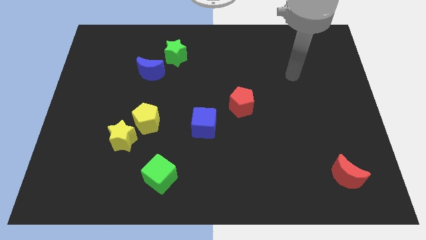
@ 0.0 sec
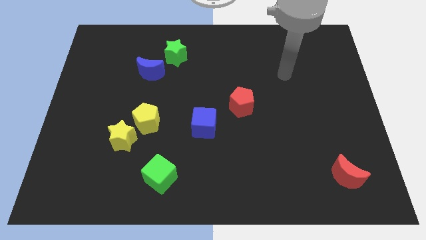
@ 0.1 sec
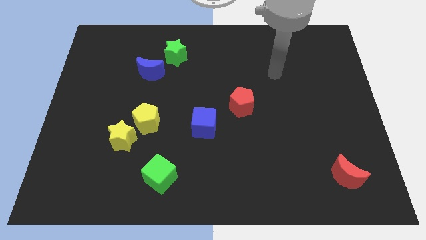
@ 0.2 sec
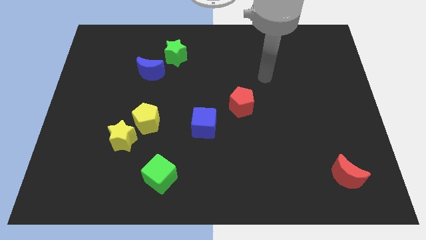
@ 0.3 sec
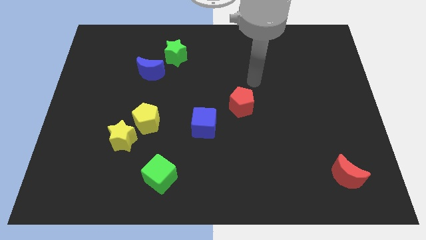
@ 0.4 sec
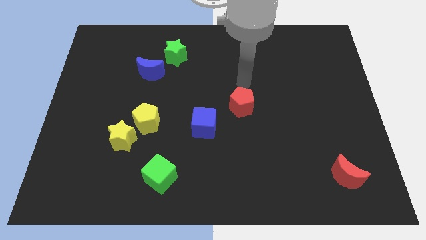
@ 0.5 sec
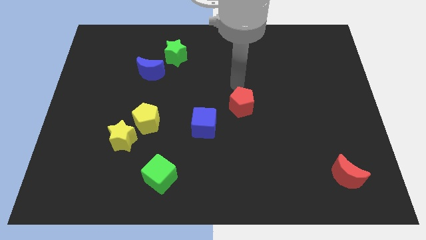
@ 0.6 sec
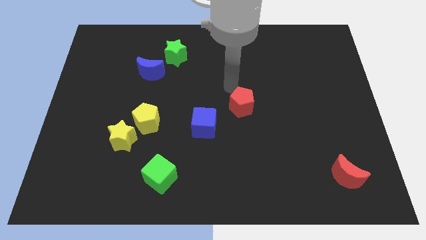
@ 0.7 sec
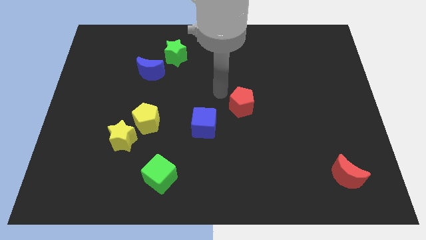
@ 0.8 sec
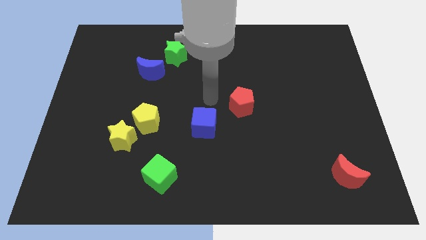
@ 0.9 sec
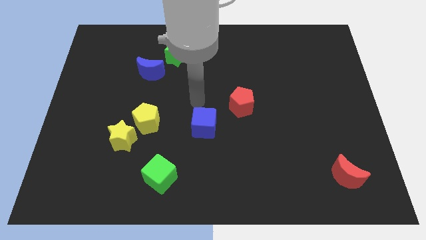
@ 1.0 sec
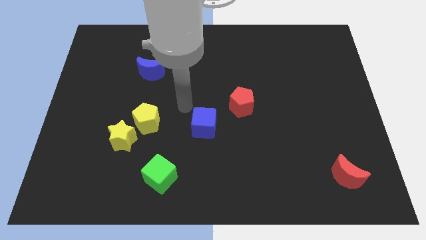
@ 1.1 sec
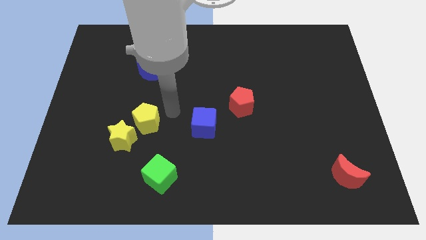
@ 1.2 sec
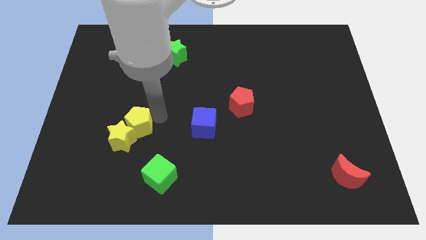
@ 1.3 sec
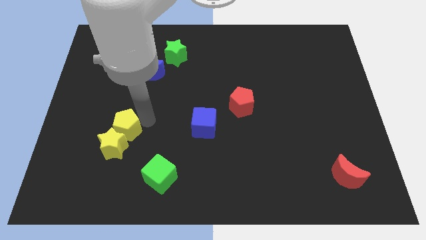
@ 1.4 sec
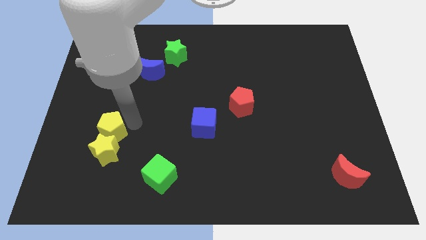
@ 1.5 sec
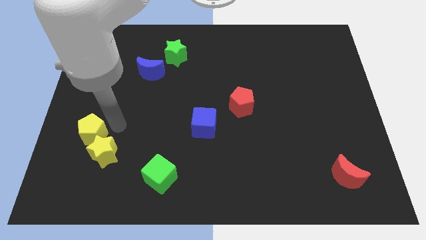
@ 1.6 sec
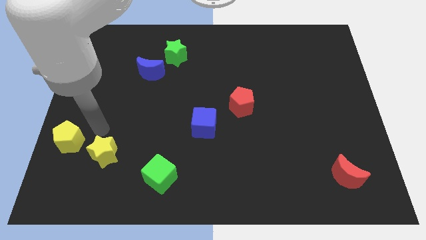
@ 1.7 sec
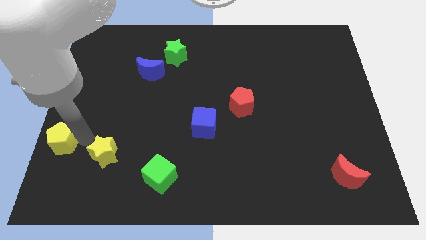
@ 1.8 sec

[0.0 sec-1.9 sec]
pull the yellow star apart from the yellow pentagon

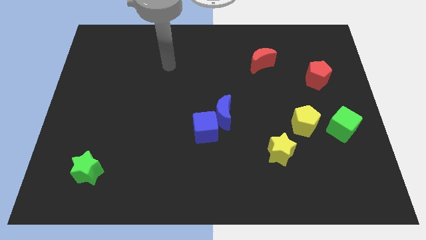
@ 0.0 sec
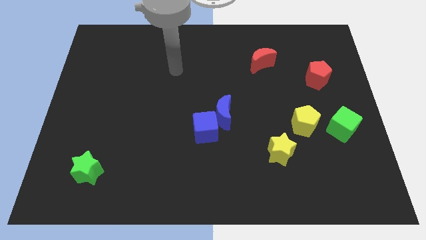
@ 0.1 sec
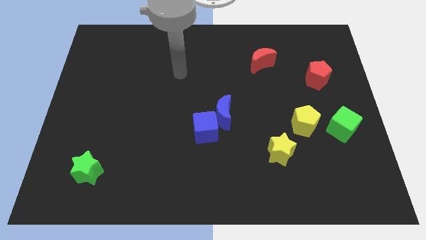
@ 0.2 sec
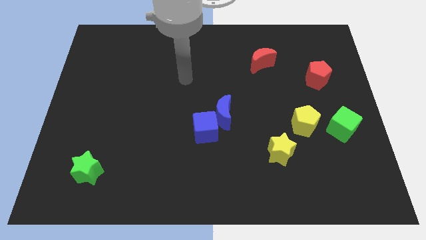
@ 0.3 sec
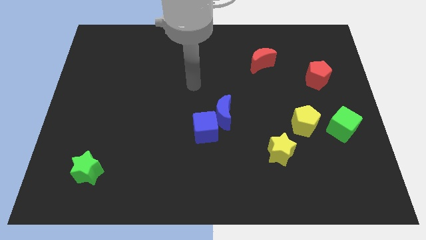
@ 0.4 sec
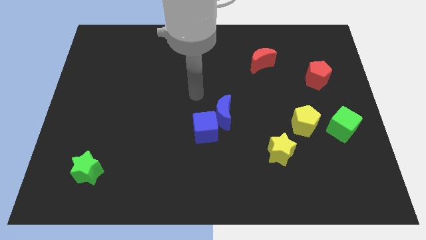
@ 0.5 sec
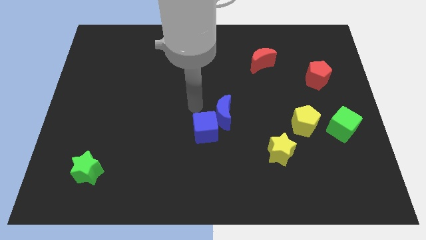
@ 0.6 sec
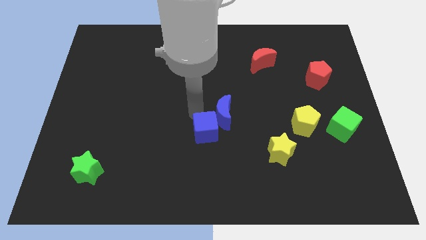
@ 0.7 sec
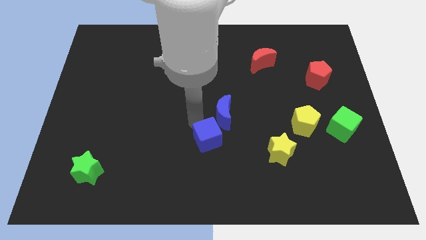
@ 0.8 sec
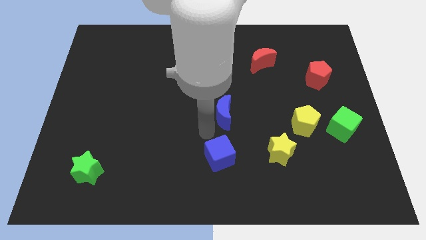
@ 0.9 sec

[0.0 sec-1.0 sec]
separate the blue moon from the blue cube

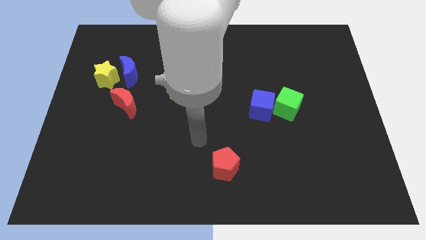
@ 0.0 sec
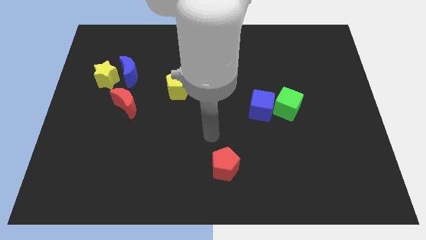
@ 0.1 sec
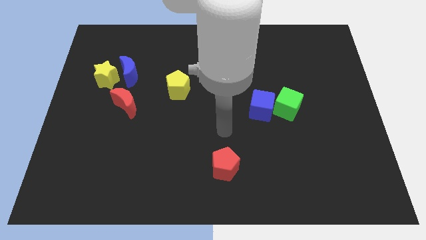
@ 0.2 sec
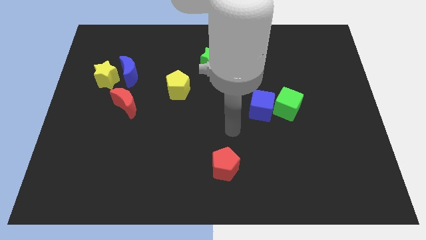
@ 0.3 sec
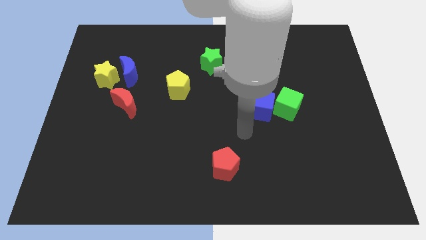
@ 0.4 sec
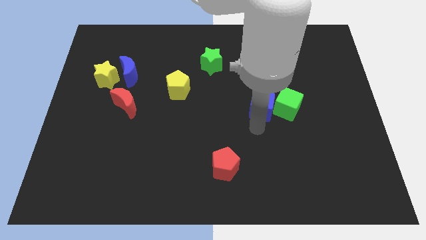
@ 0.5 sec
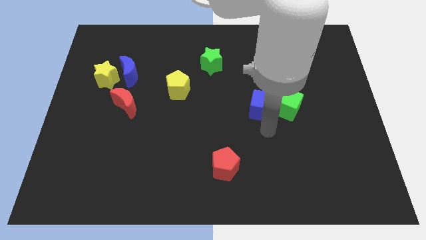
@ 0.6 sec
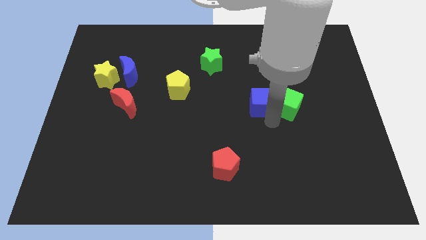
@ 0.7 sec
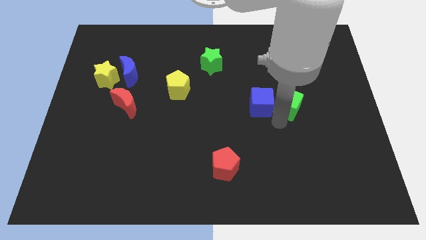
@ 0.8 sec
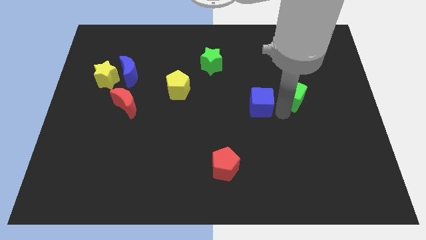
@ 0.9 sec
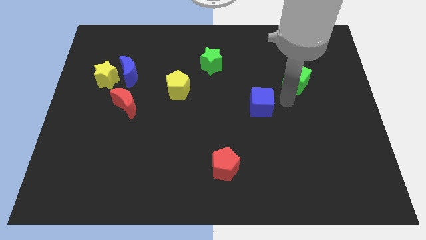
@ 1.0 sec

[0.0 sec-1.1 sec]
pull the blue cube apart from the green cube

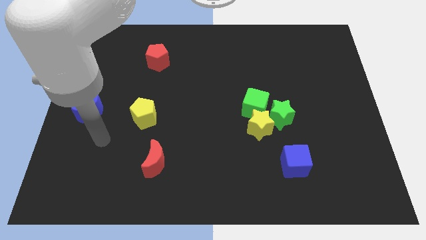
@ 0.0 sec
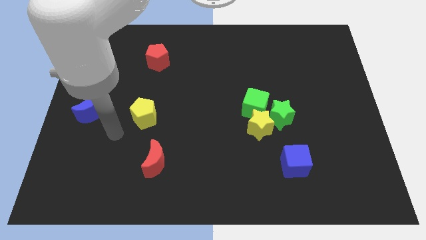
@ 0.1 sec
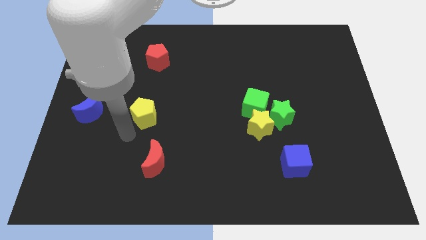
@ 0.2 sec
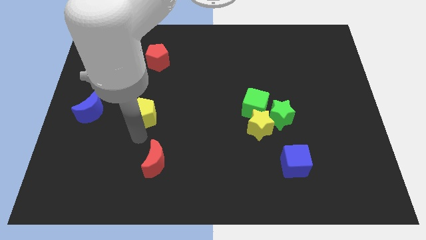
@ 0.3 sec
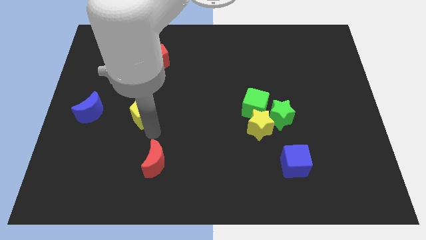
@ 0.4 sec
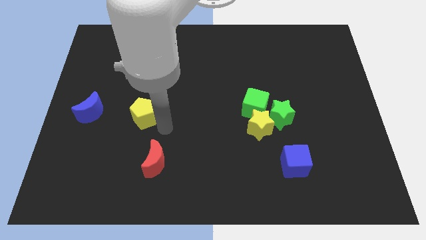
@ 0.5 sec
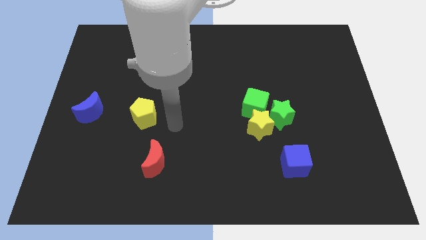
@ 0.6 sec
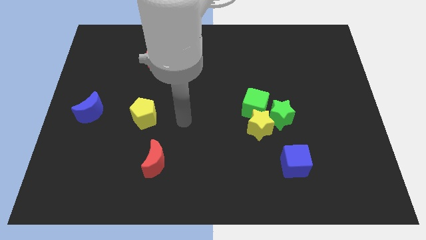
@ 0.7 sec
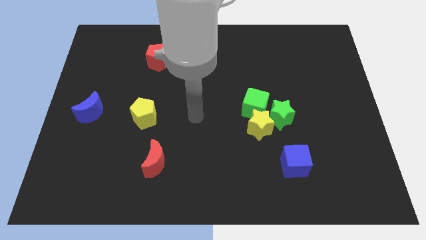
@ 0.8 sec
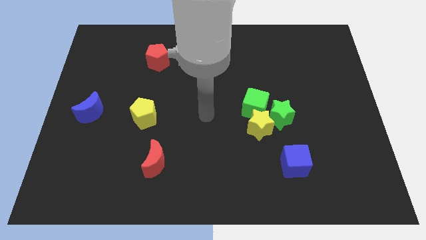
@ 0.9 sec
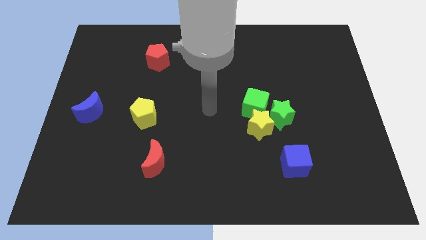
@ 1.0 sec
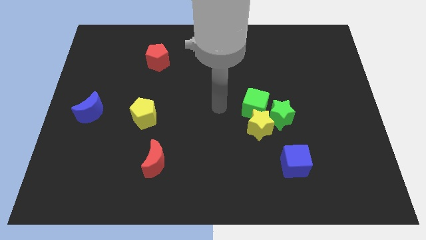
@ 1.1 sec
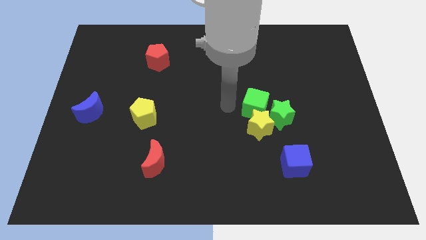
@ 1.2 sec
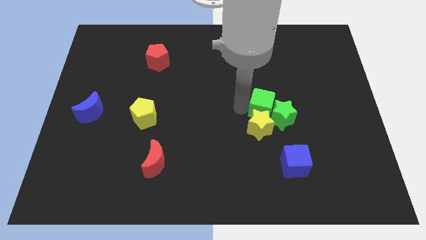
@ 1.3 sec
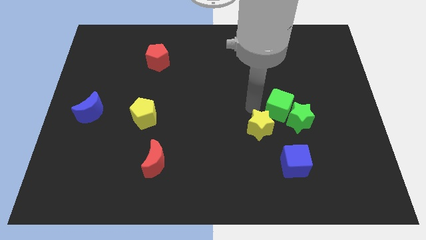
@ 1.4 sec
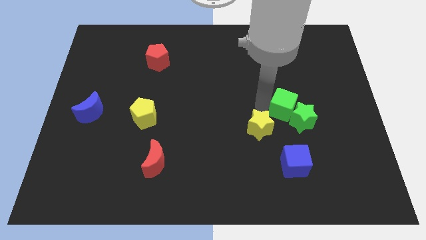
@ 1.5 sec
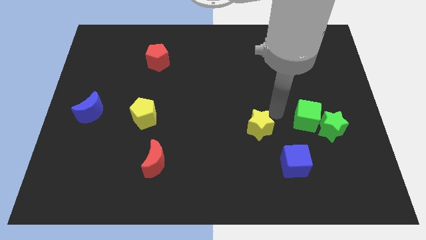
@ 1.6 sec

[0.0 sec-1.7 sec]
pull the yellow star apart from the green star and green cube

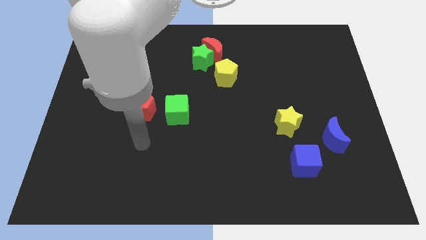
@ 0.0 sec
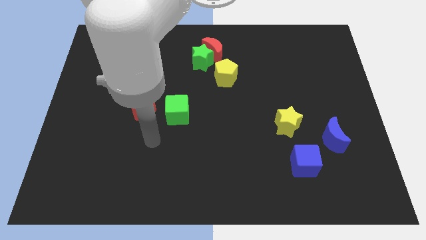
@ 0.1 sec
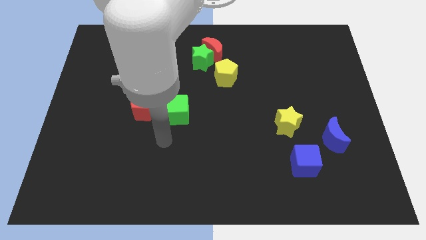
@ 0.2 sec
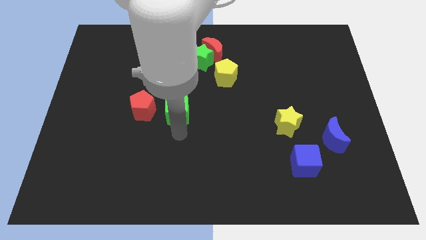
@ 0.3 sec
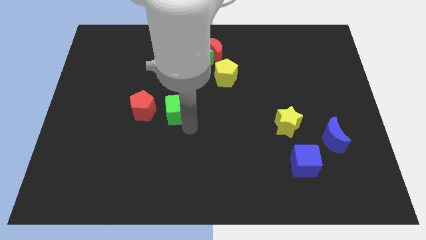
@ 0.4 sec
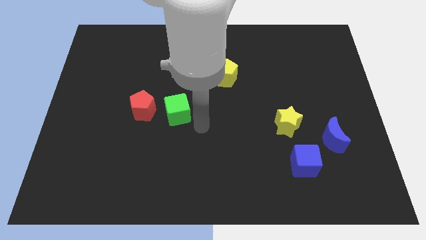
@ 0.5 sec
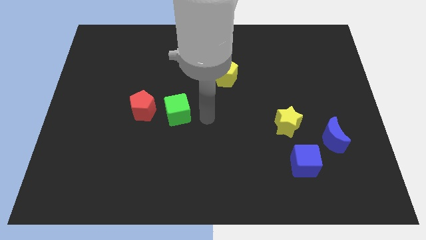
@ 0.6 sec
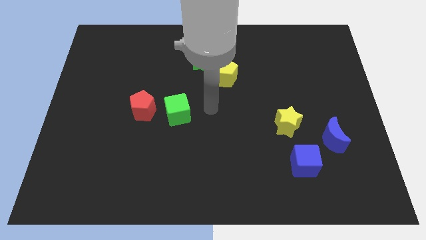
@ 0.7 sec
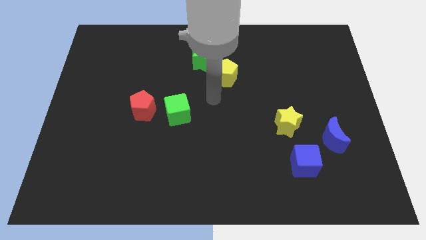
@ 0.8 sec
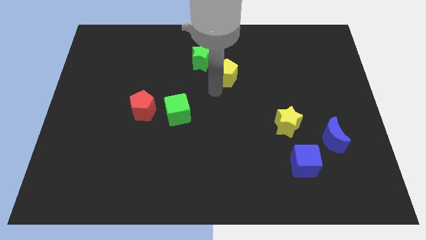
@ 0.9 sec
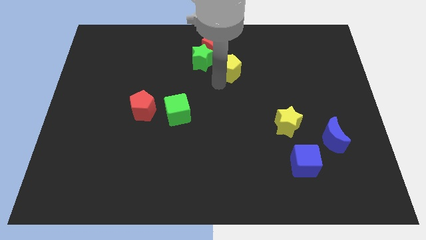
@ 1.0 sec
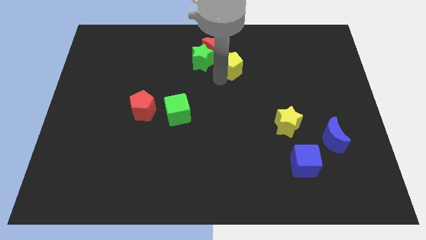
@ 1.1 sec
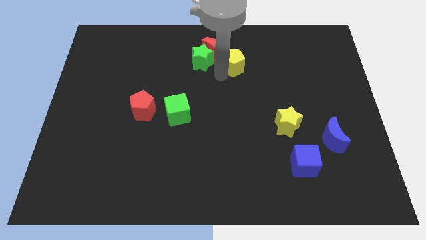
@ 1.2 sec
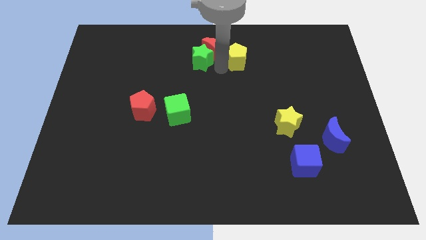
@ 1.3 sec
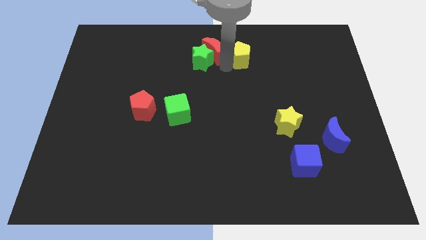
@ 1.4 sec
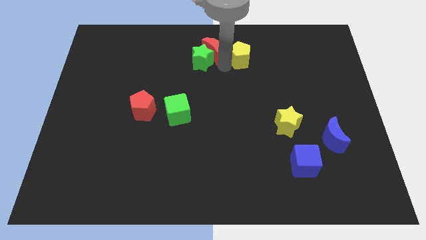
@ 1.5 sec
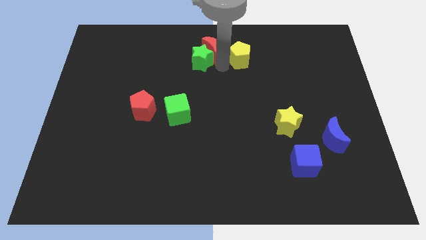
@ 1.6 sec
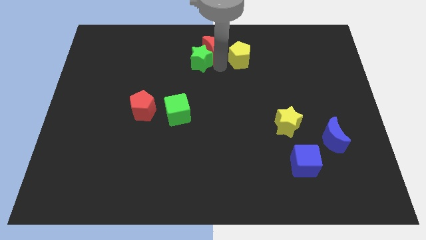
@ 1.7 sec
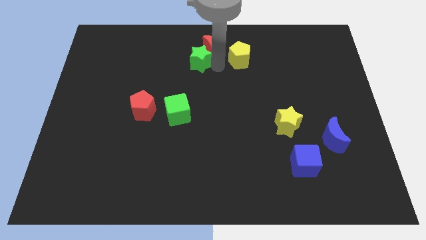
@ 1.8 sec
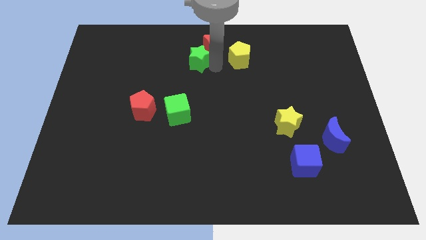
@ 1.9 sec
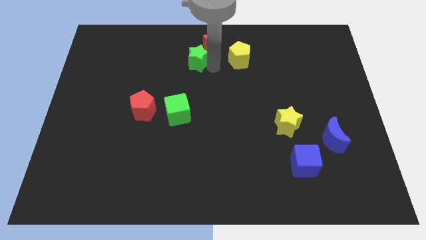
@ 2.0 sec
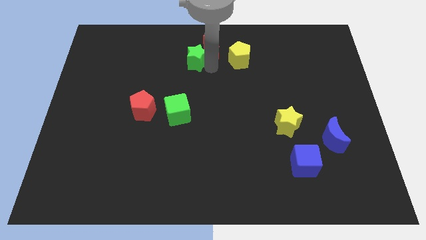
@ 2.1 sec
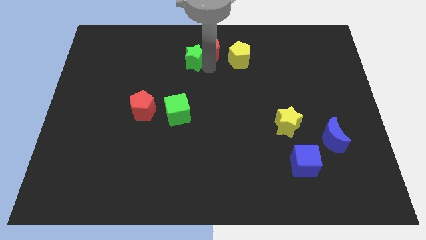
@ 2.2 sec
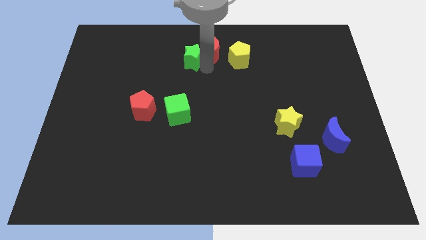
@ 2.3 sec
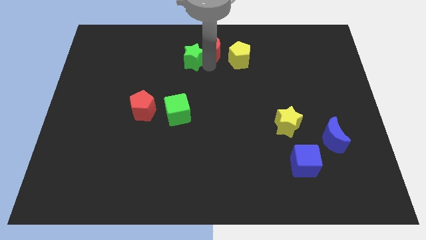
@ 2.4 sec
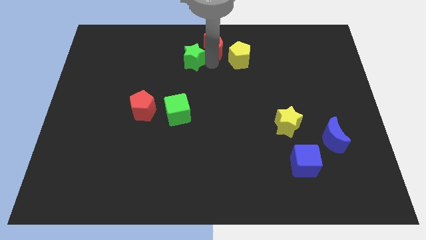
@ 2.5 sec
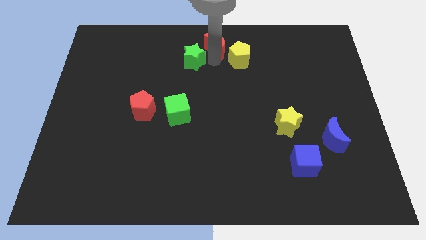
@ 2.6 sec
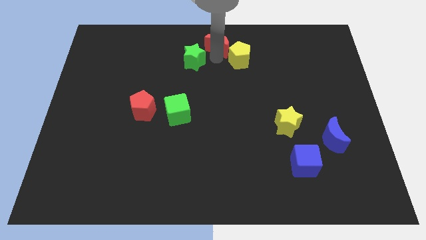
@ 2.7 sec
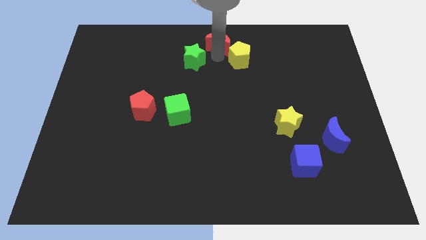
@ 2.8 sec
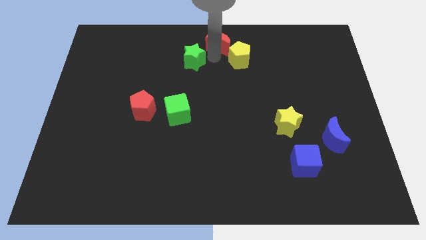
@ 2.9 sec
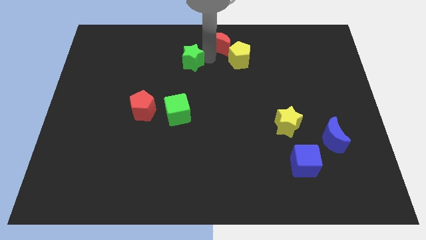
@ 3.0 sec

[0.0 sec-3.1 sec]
separate the green star from the red moon and yellow pentagon

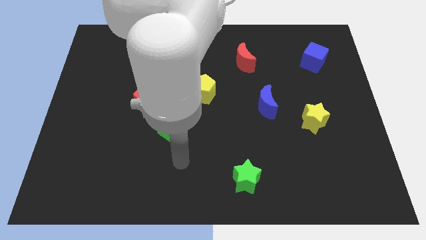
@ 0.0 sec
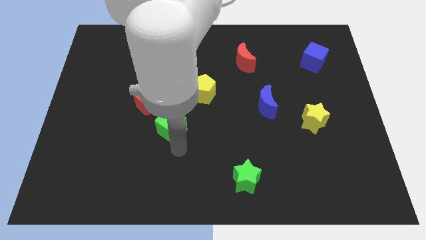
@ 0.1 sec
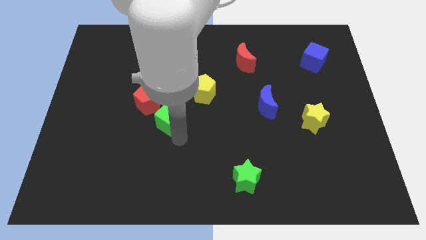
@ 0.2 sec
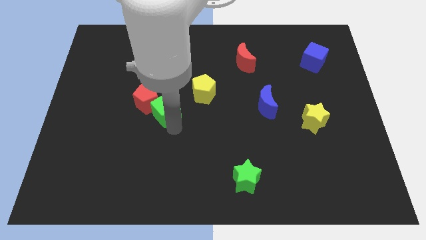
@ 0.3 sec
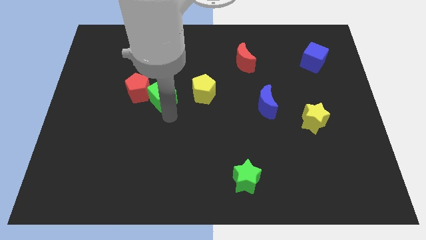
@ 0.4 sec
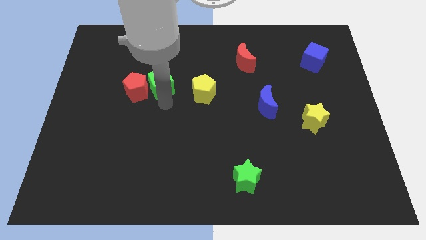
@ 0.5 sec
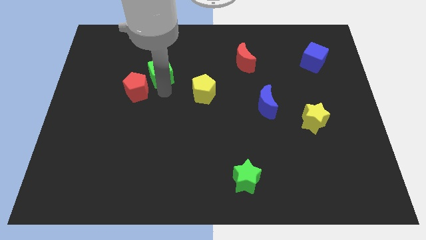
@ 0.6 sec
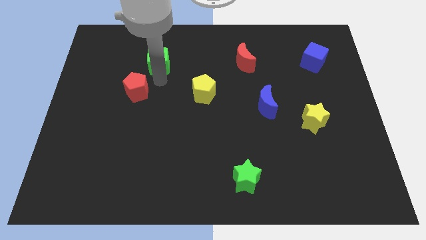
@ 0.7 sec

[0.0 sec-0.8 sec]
separate the red pentagon from the green cube
